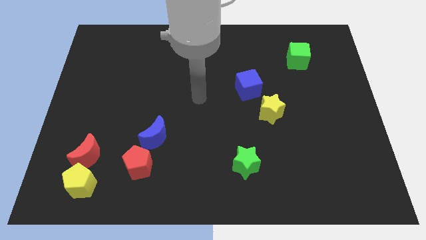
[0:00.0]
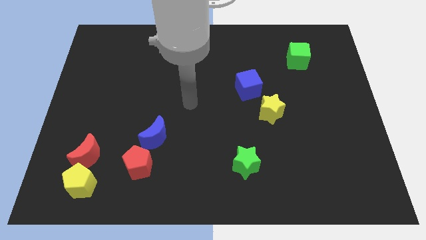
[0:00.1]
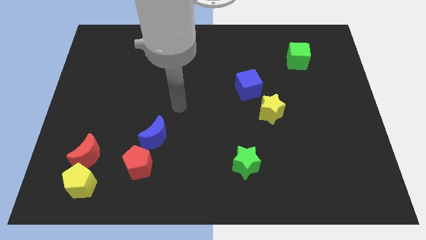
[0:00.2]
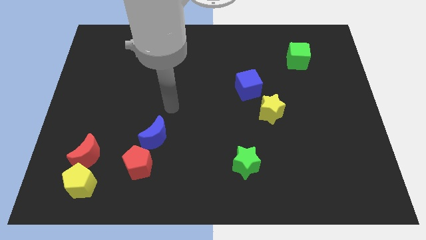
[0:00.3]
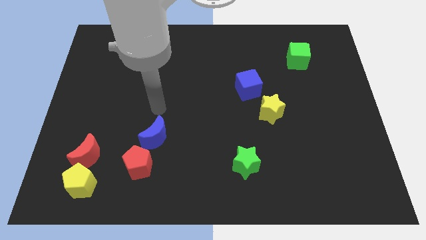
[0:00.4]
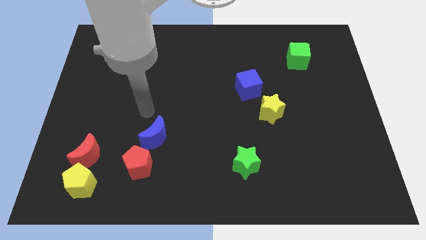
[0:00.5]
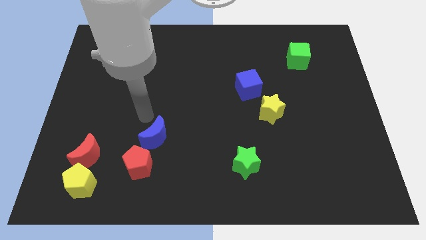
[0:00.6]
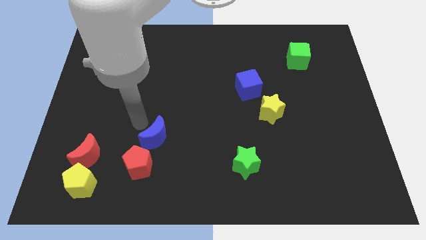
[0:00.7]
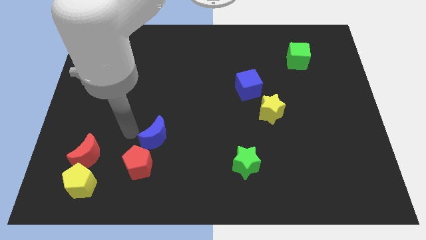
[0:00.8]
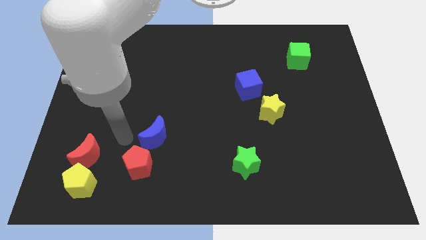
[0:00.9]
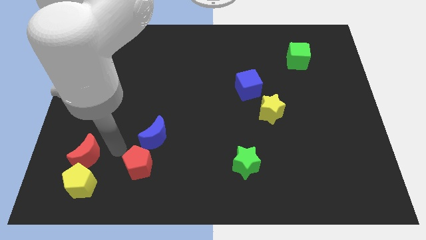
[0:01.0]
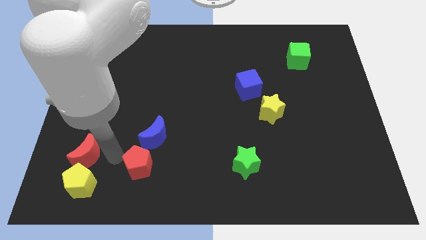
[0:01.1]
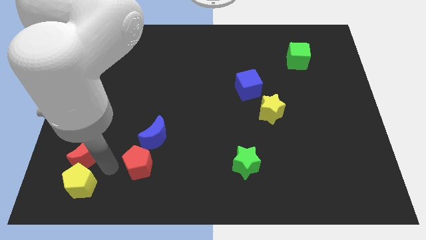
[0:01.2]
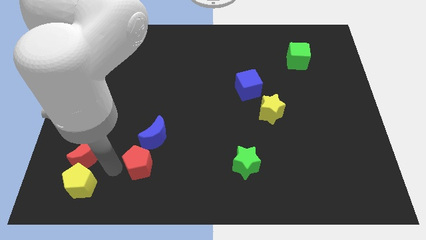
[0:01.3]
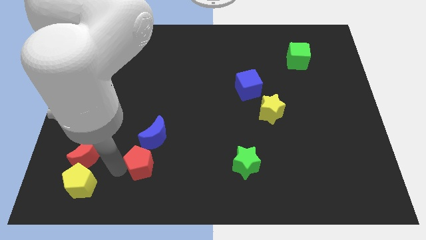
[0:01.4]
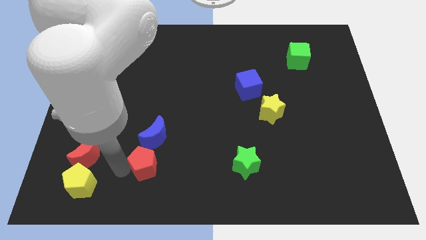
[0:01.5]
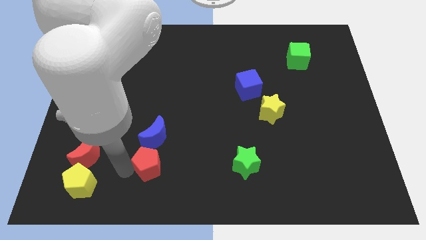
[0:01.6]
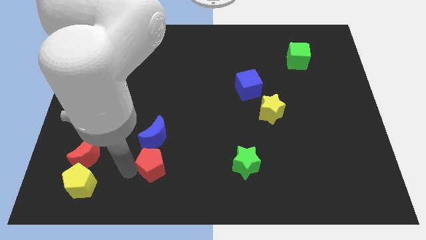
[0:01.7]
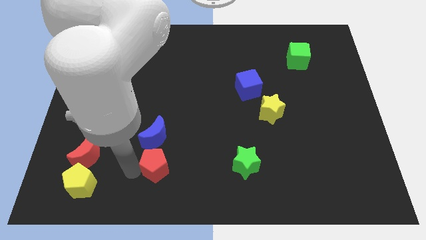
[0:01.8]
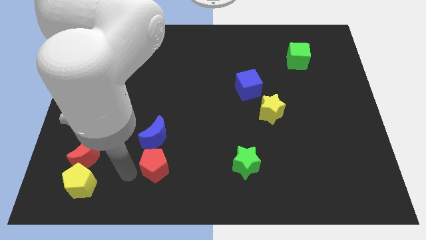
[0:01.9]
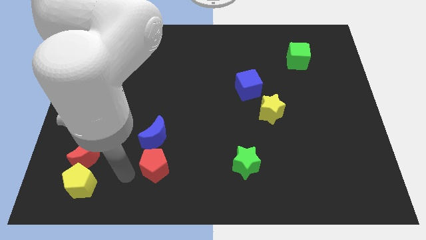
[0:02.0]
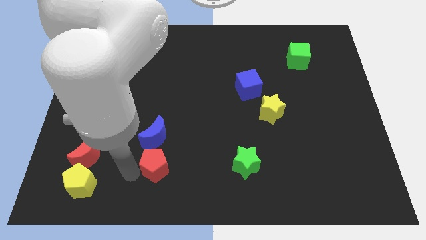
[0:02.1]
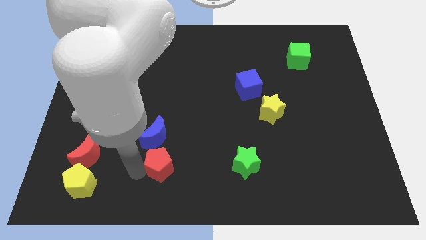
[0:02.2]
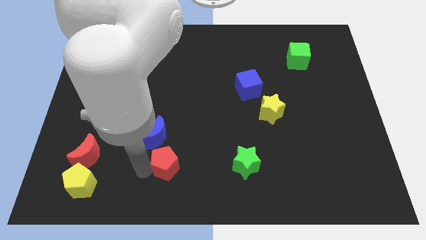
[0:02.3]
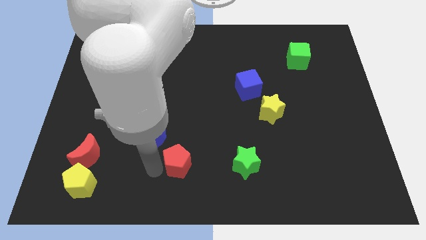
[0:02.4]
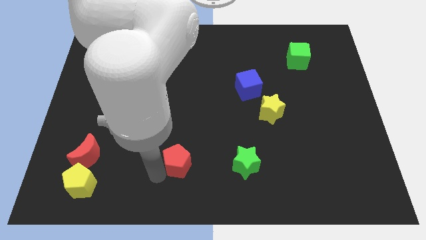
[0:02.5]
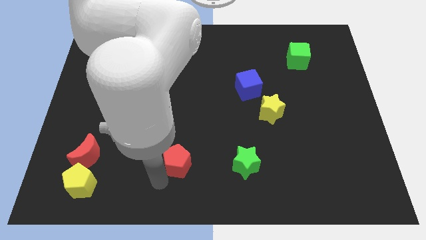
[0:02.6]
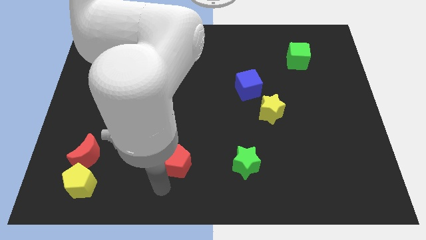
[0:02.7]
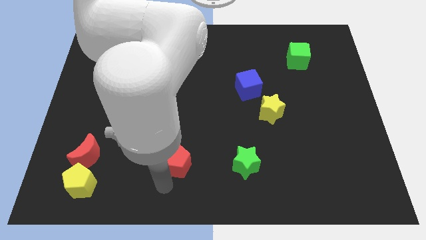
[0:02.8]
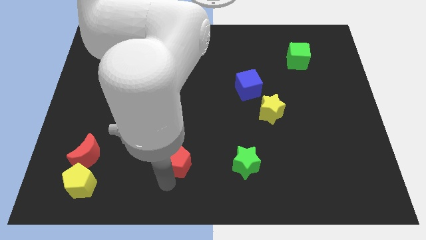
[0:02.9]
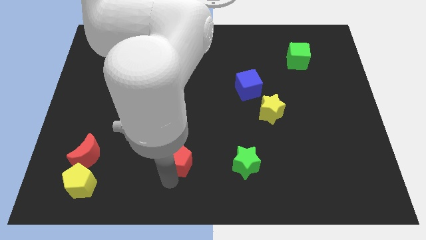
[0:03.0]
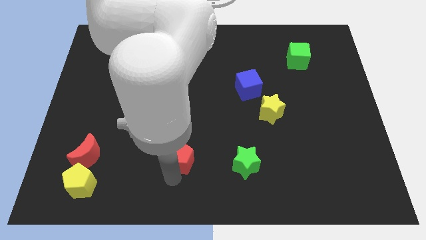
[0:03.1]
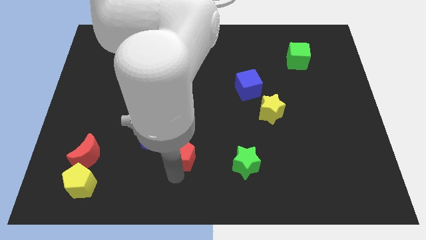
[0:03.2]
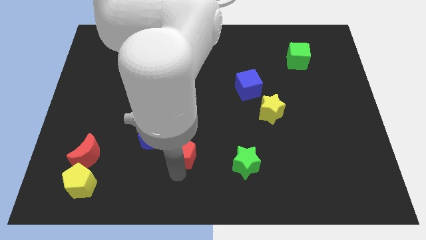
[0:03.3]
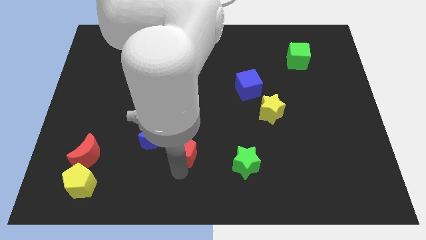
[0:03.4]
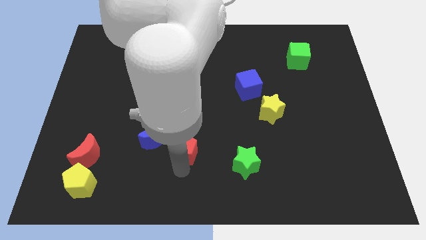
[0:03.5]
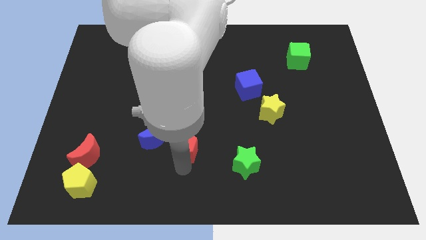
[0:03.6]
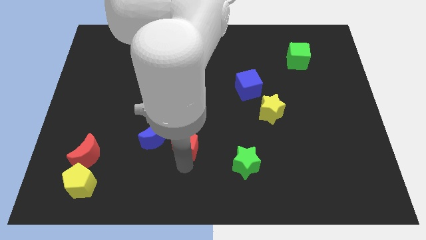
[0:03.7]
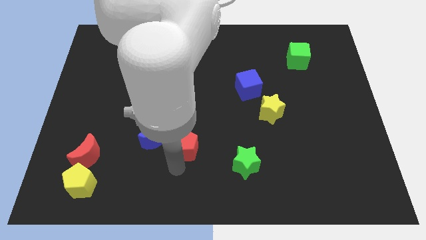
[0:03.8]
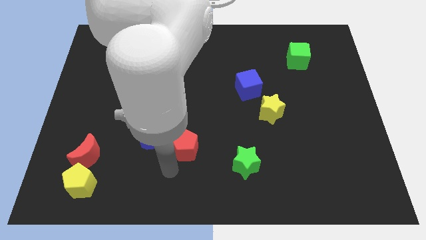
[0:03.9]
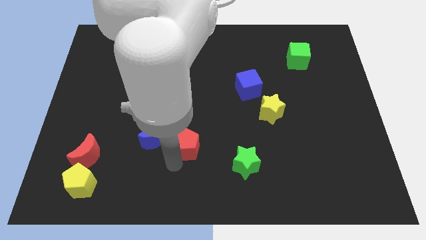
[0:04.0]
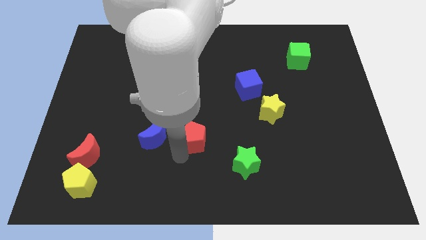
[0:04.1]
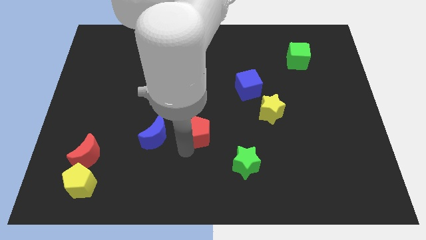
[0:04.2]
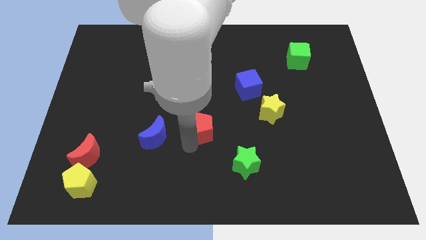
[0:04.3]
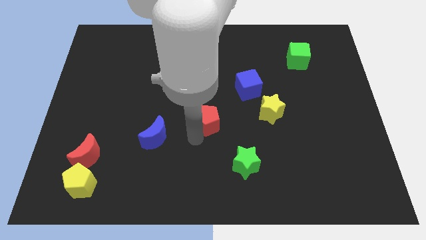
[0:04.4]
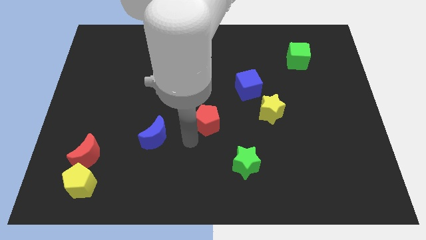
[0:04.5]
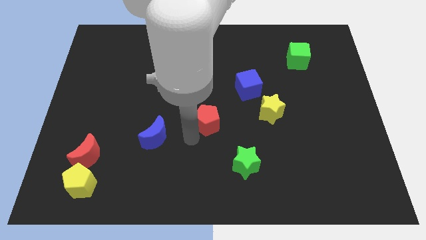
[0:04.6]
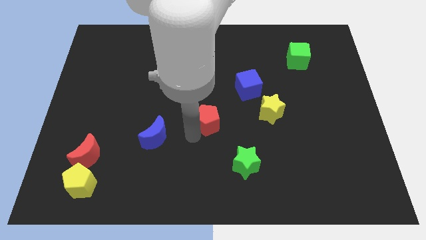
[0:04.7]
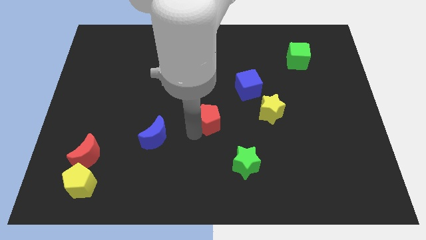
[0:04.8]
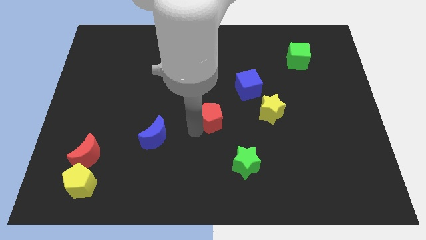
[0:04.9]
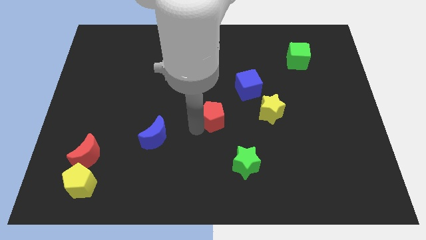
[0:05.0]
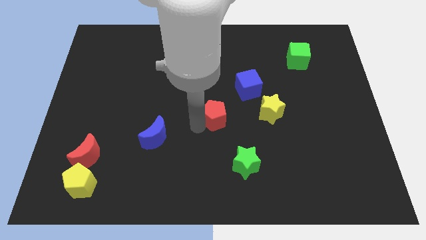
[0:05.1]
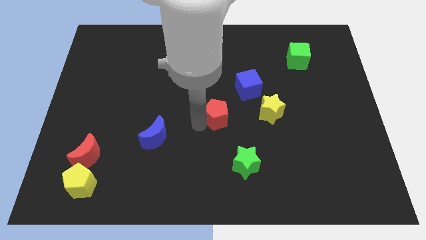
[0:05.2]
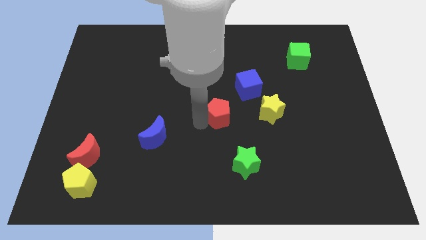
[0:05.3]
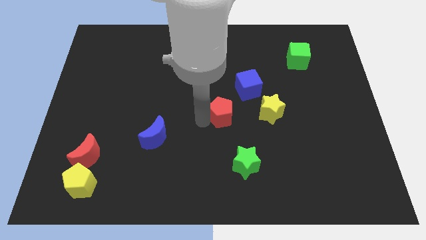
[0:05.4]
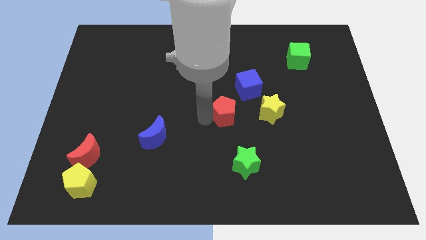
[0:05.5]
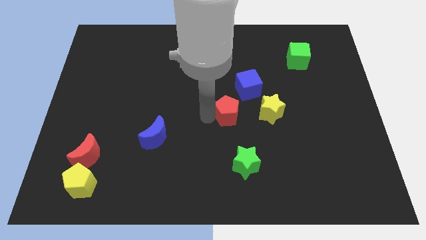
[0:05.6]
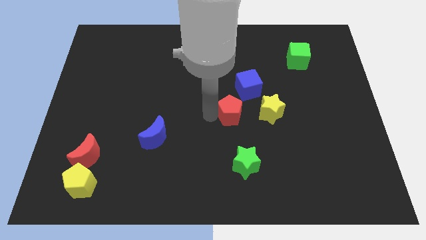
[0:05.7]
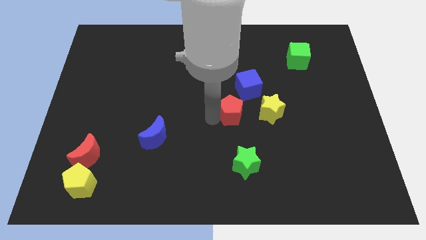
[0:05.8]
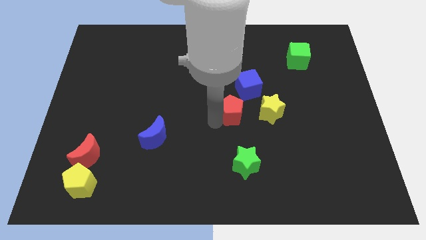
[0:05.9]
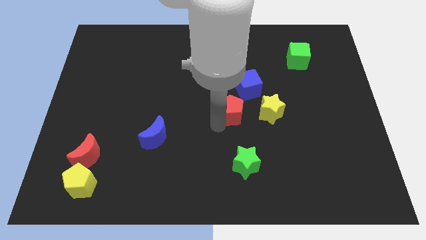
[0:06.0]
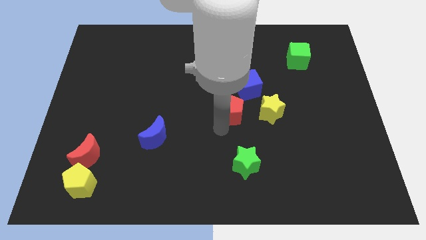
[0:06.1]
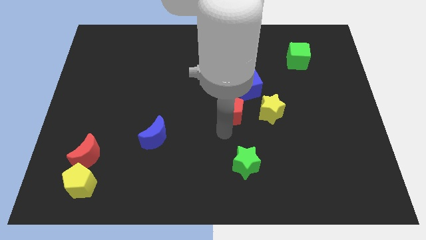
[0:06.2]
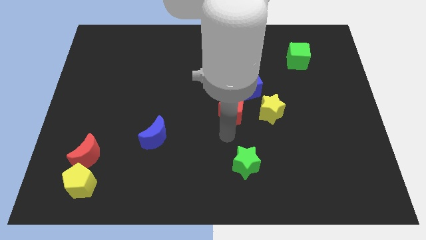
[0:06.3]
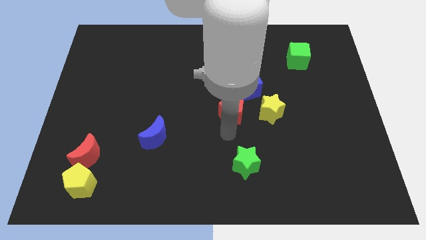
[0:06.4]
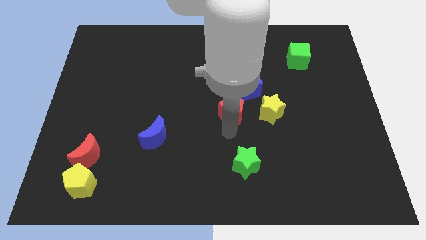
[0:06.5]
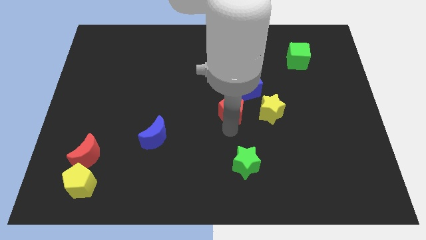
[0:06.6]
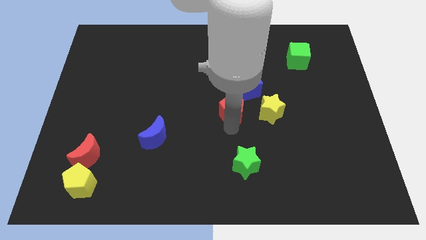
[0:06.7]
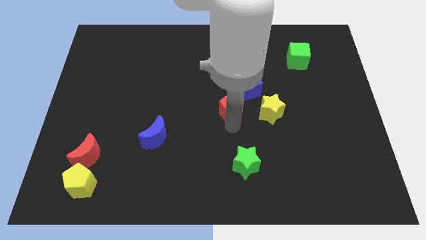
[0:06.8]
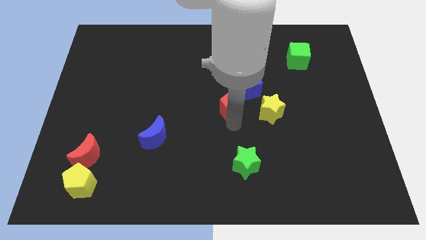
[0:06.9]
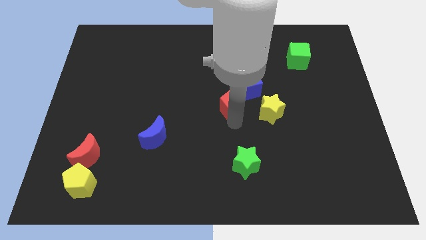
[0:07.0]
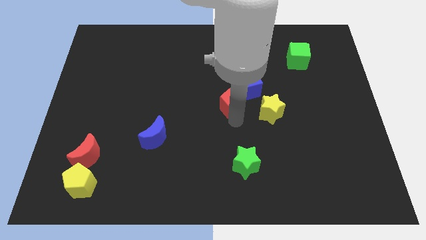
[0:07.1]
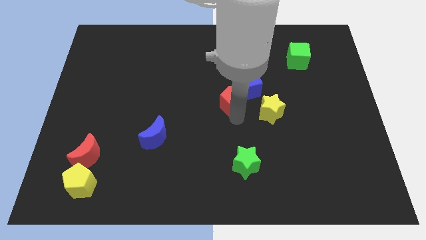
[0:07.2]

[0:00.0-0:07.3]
push the red pentagon towards the blue cube

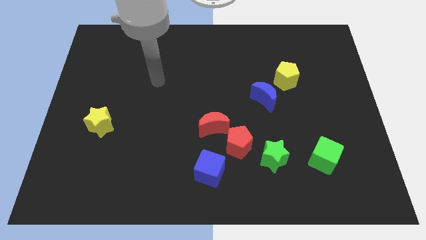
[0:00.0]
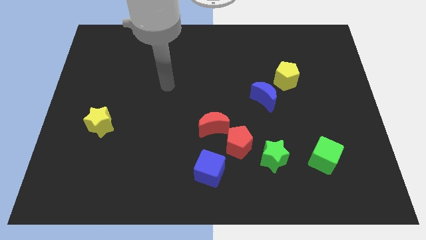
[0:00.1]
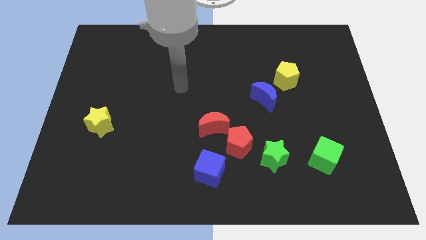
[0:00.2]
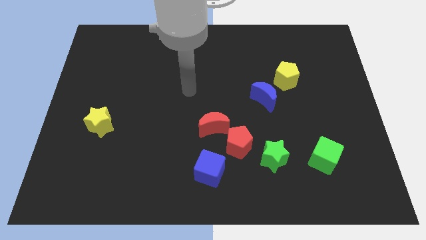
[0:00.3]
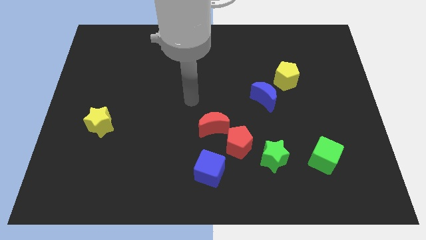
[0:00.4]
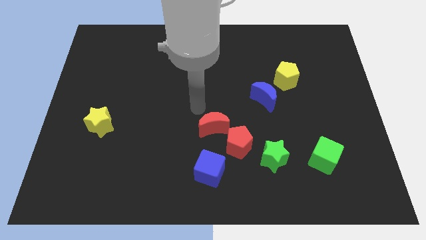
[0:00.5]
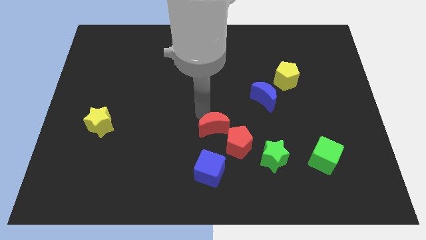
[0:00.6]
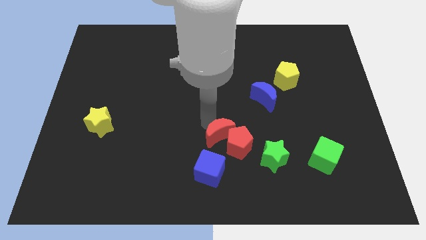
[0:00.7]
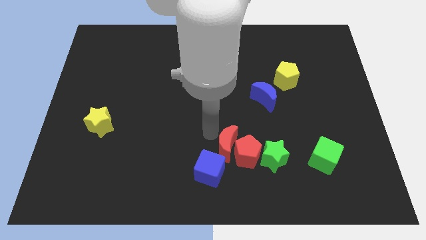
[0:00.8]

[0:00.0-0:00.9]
move the red pentagon next to the green star

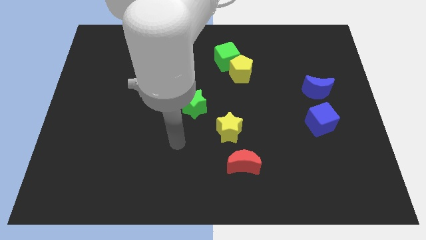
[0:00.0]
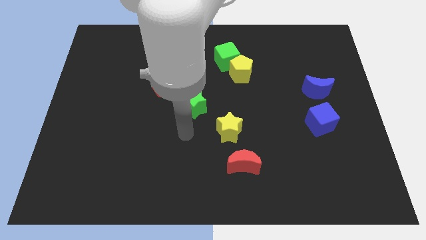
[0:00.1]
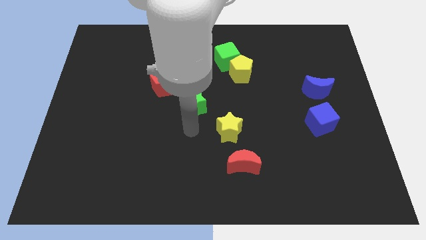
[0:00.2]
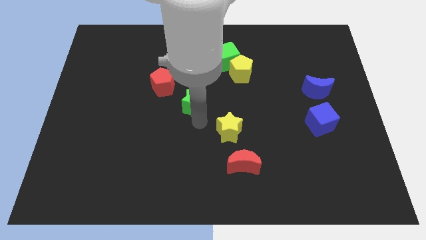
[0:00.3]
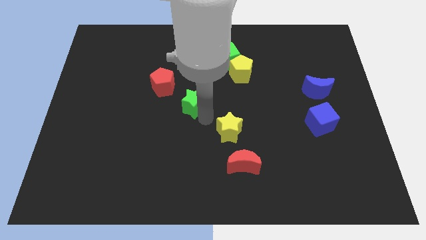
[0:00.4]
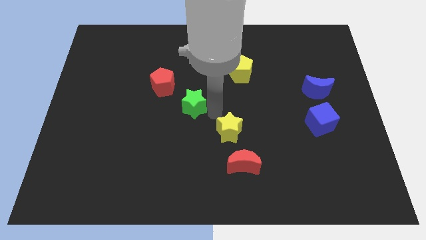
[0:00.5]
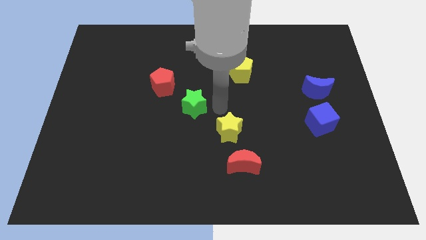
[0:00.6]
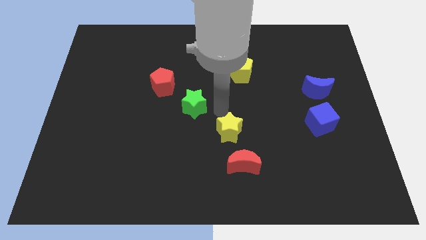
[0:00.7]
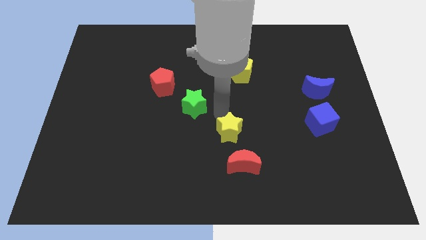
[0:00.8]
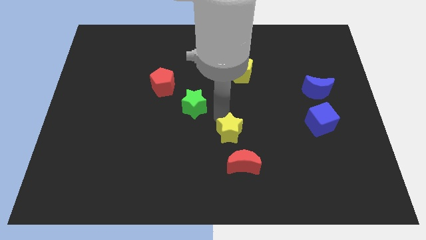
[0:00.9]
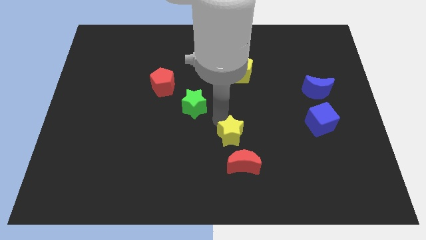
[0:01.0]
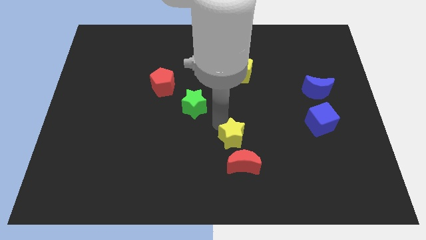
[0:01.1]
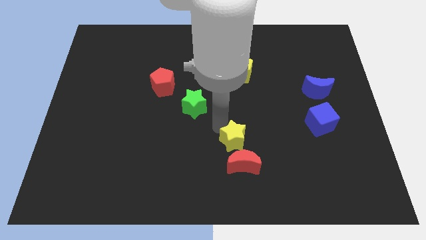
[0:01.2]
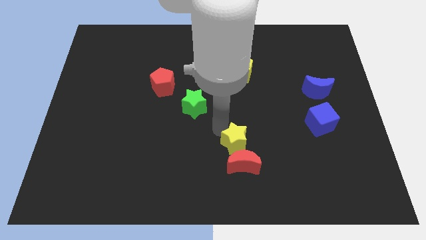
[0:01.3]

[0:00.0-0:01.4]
put the yellow star close to the red moon
